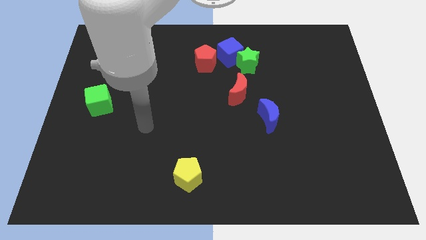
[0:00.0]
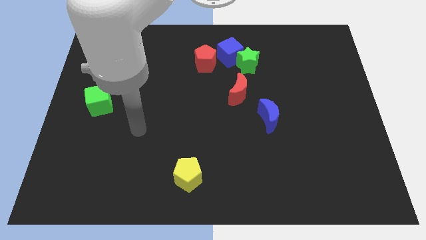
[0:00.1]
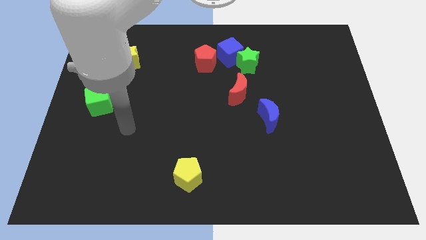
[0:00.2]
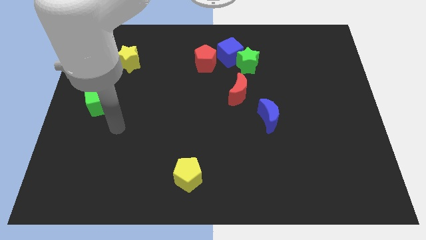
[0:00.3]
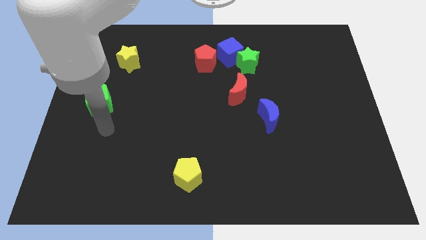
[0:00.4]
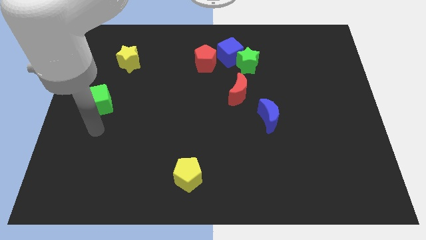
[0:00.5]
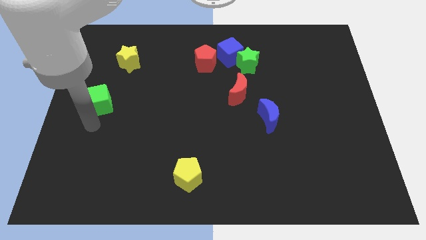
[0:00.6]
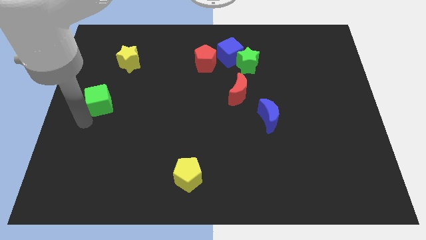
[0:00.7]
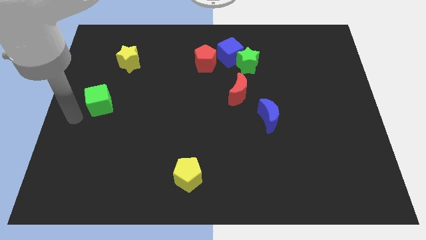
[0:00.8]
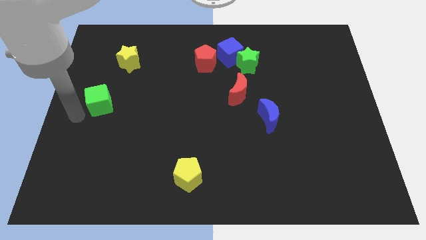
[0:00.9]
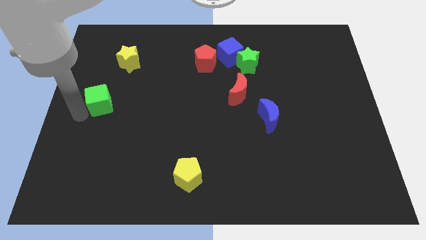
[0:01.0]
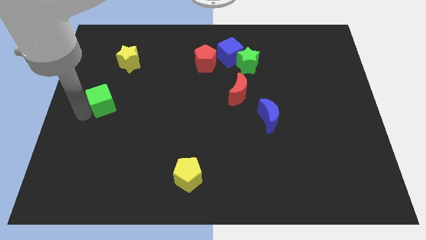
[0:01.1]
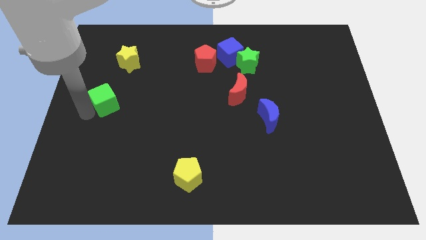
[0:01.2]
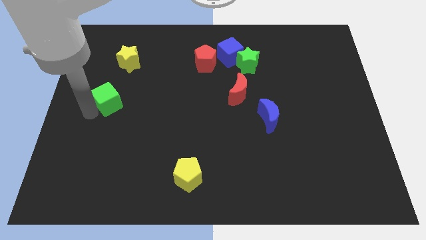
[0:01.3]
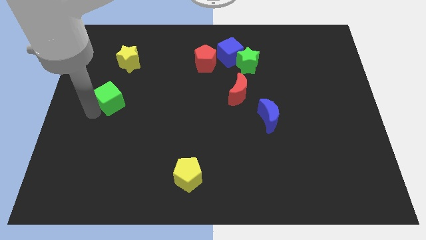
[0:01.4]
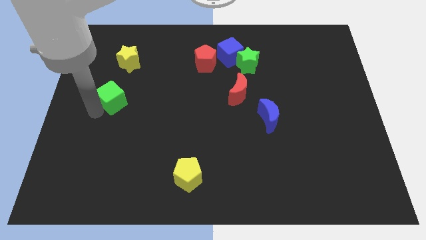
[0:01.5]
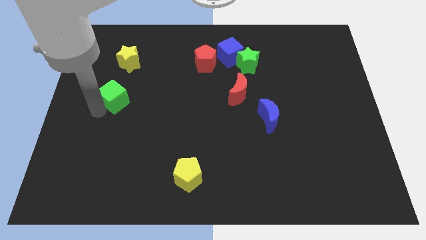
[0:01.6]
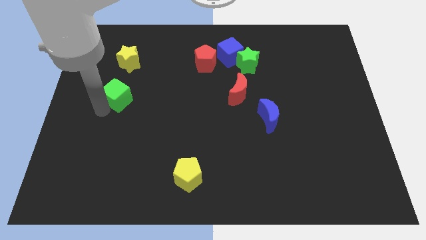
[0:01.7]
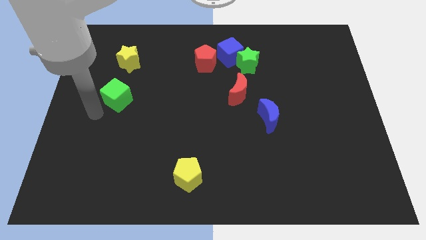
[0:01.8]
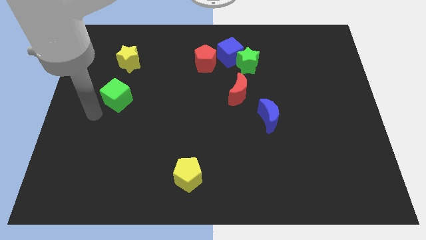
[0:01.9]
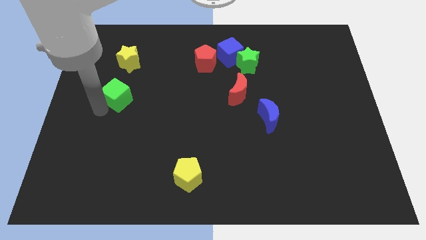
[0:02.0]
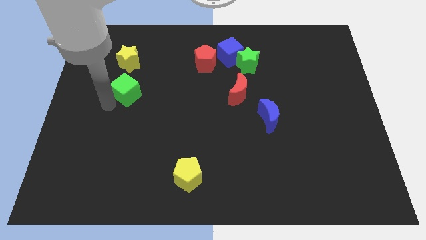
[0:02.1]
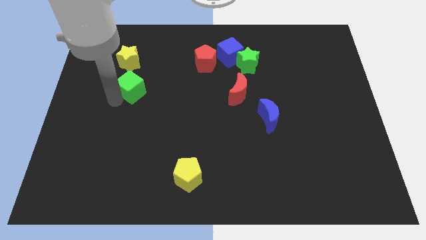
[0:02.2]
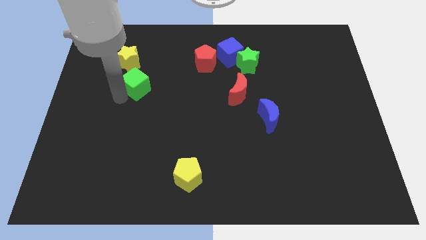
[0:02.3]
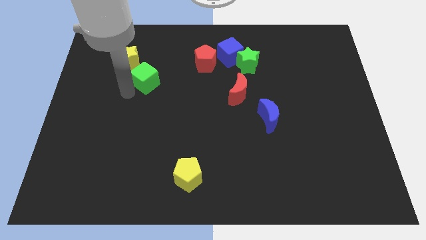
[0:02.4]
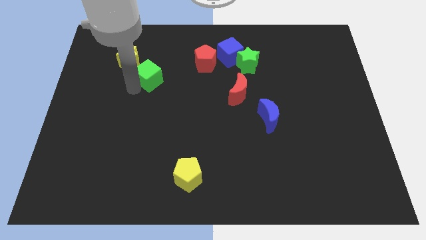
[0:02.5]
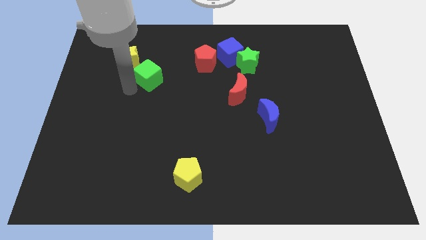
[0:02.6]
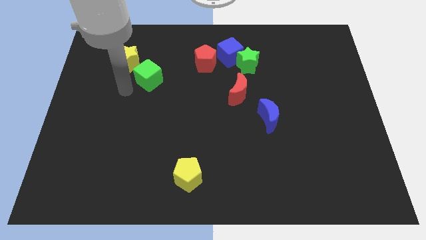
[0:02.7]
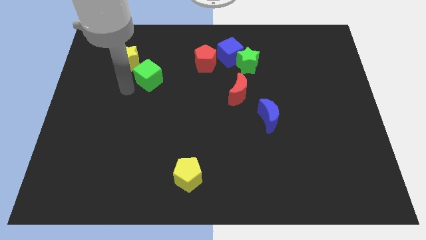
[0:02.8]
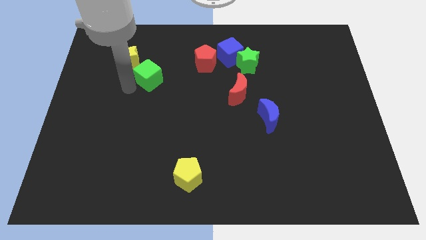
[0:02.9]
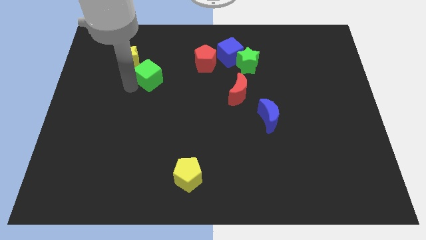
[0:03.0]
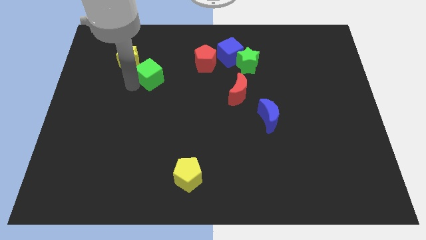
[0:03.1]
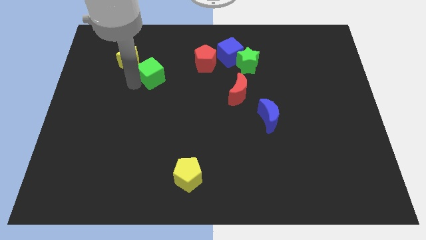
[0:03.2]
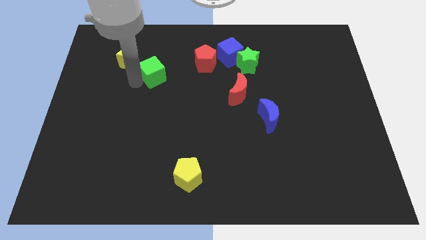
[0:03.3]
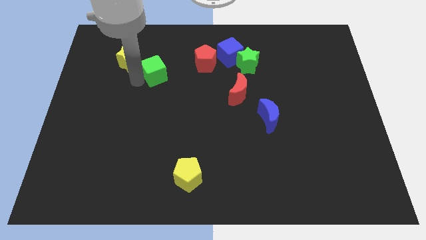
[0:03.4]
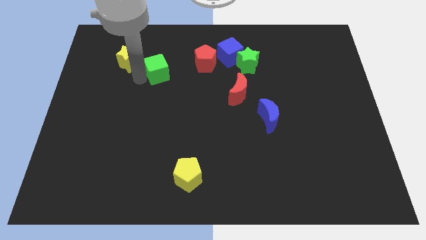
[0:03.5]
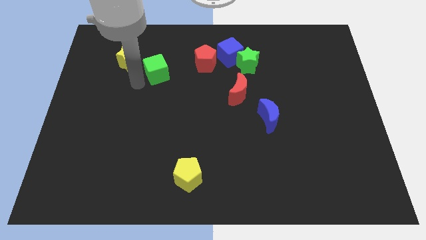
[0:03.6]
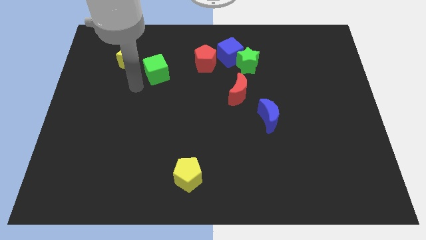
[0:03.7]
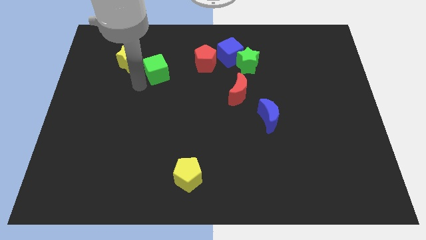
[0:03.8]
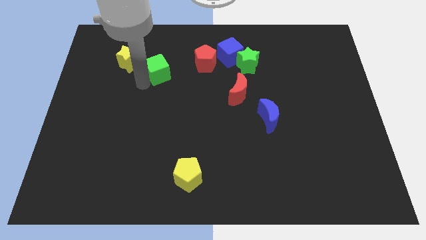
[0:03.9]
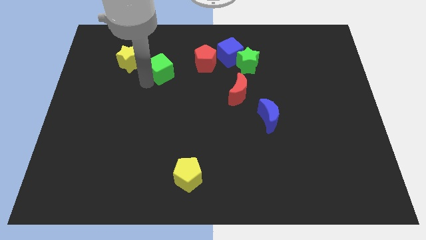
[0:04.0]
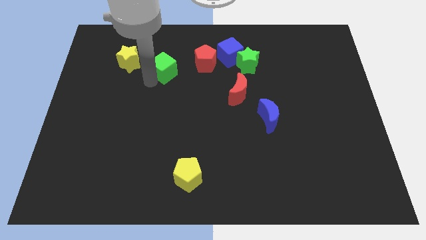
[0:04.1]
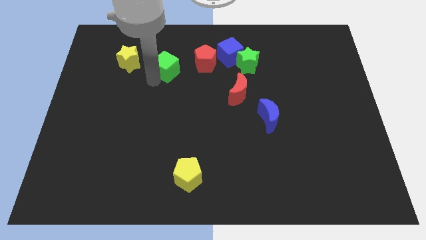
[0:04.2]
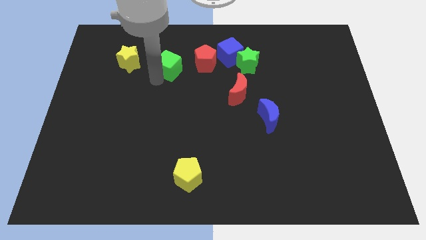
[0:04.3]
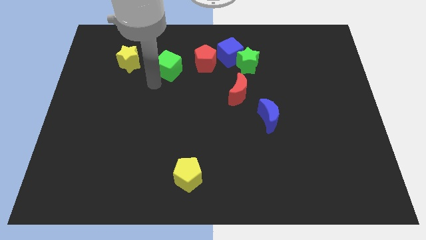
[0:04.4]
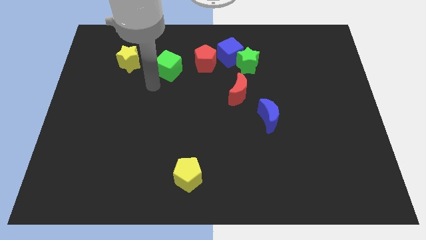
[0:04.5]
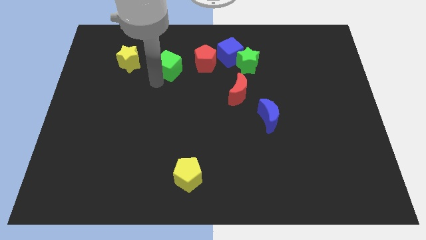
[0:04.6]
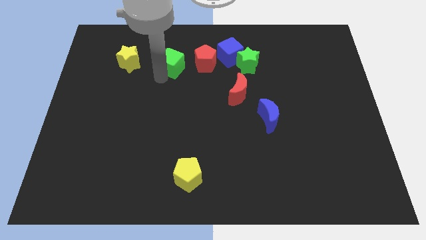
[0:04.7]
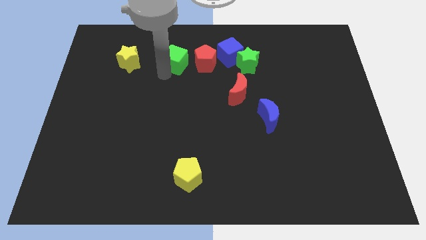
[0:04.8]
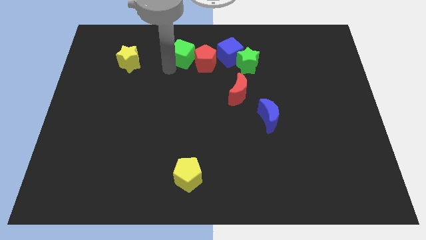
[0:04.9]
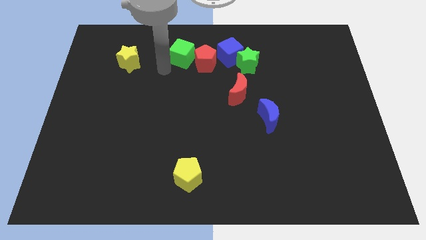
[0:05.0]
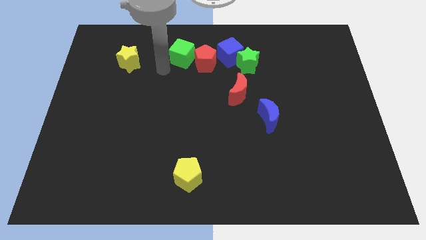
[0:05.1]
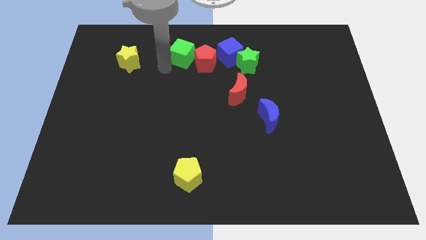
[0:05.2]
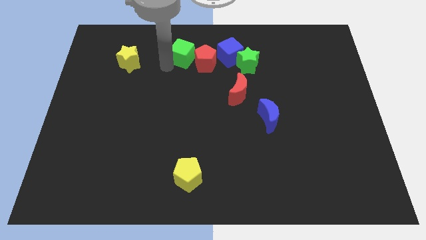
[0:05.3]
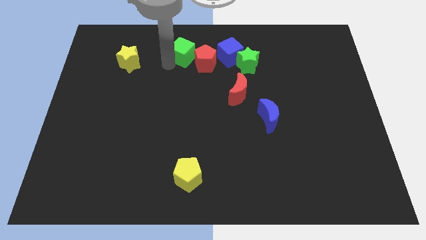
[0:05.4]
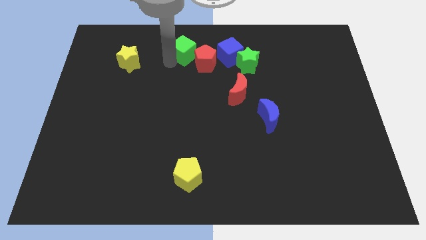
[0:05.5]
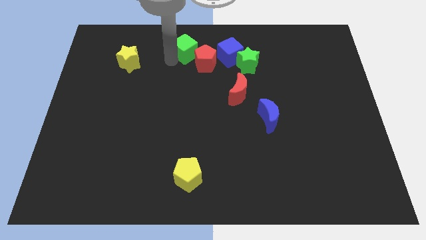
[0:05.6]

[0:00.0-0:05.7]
push the green cube to the top

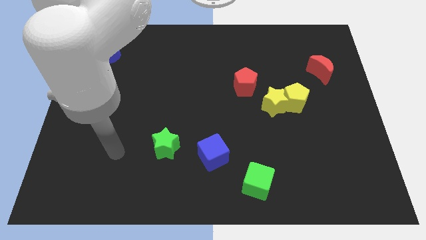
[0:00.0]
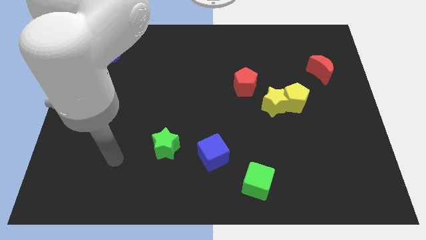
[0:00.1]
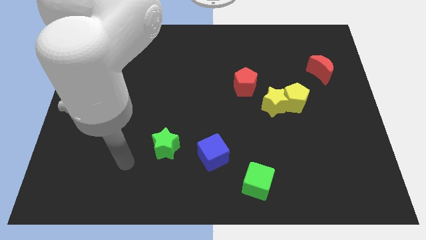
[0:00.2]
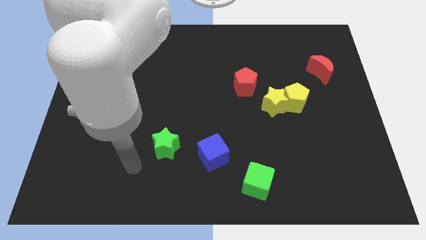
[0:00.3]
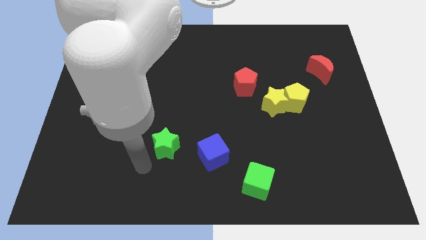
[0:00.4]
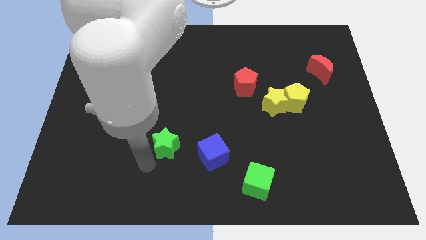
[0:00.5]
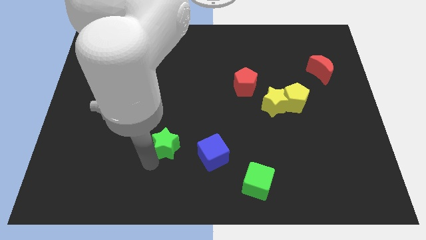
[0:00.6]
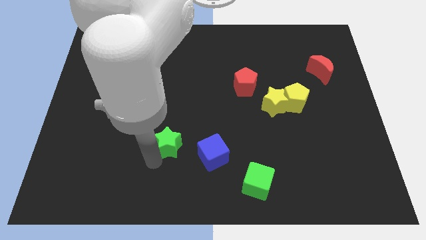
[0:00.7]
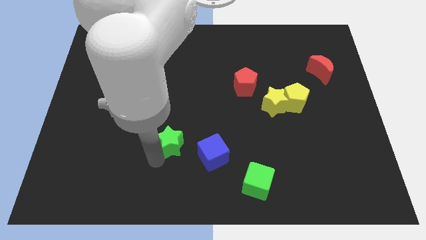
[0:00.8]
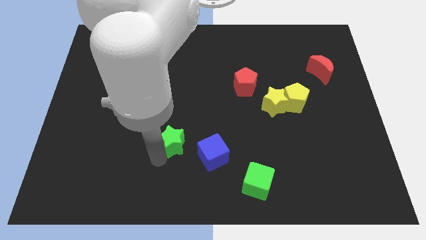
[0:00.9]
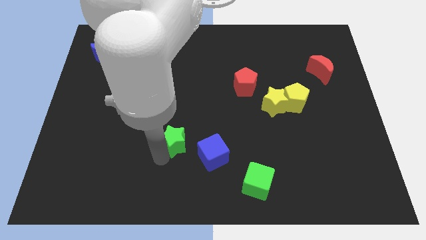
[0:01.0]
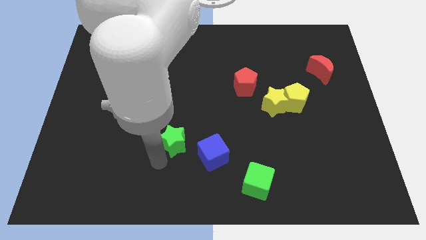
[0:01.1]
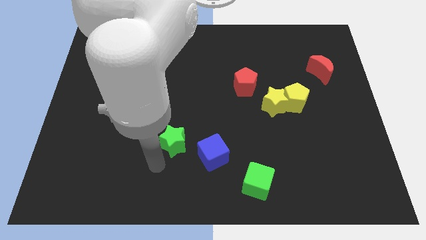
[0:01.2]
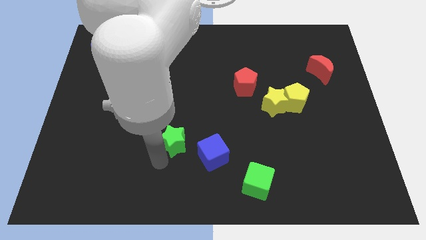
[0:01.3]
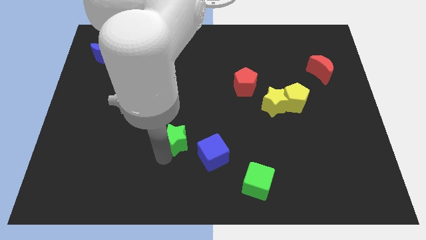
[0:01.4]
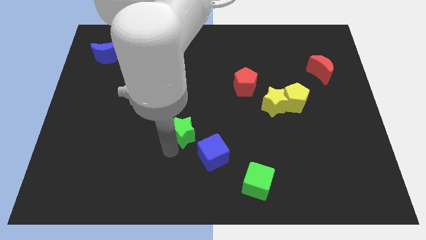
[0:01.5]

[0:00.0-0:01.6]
push the green star to the center
